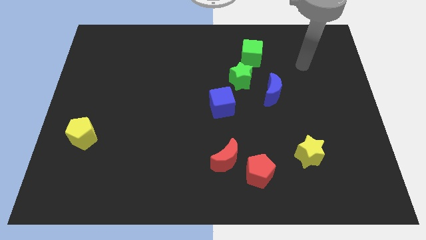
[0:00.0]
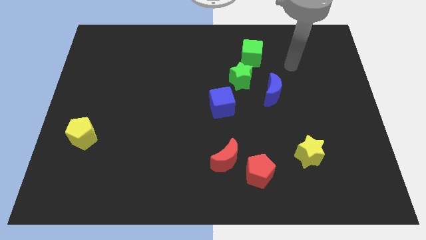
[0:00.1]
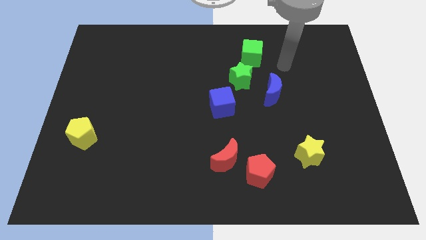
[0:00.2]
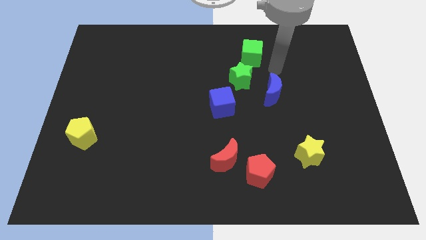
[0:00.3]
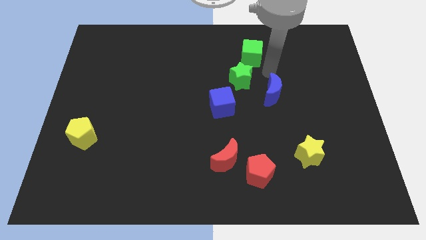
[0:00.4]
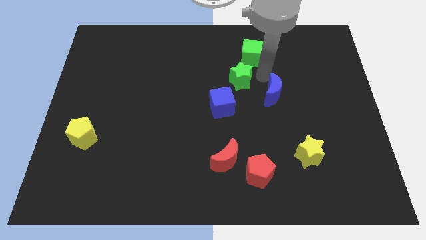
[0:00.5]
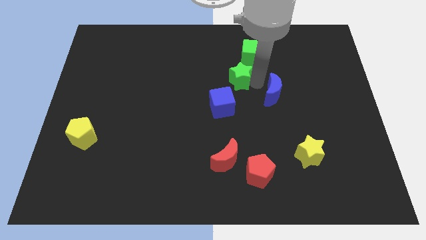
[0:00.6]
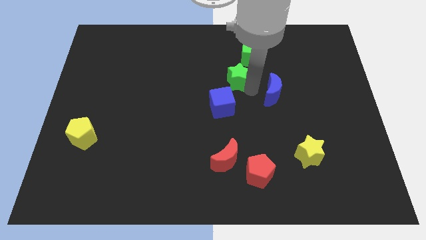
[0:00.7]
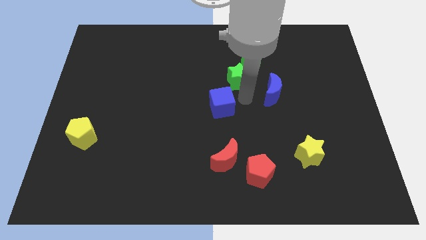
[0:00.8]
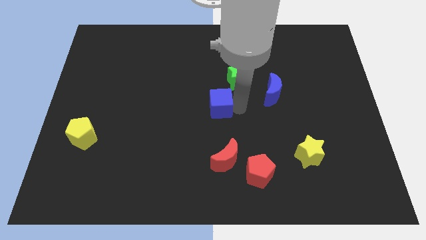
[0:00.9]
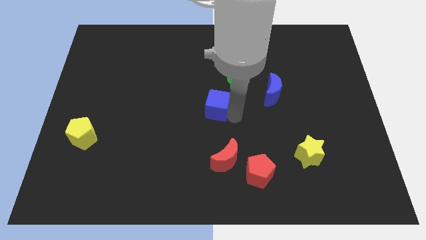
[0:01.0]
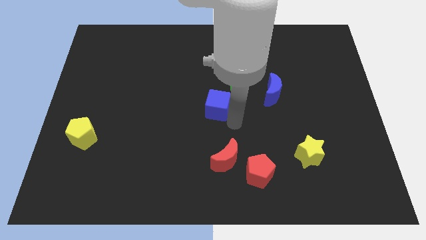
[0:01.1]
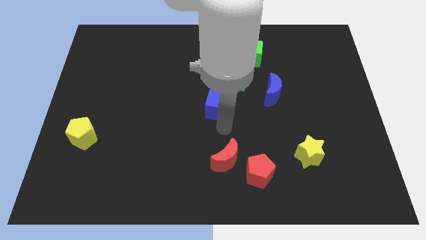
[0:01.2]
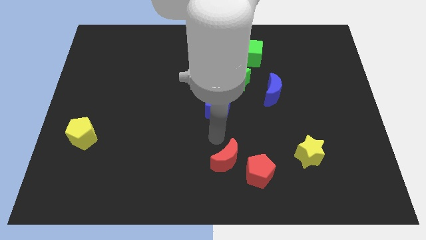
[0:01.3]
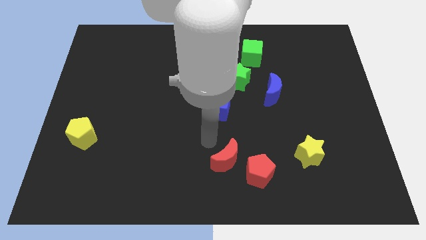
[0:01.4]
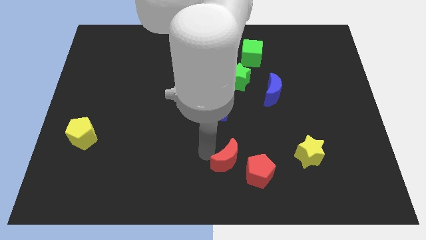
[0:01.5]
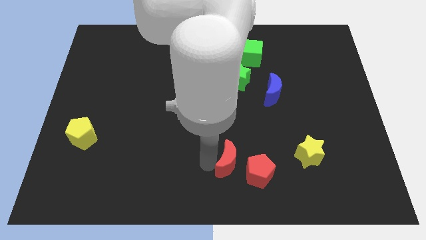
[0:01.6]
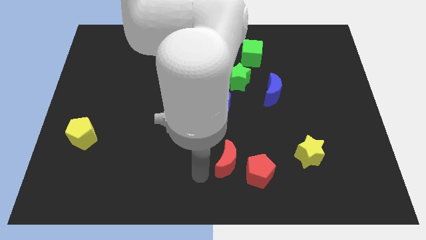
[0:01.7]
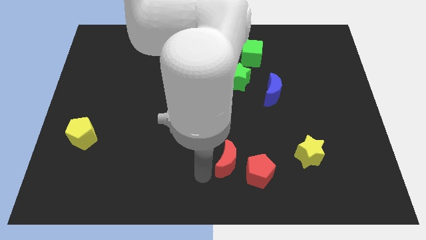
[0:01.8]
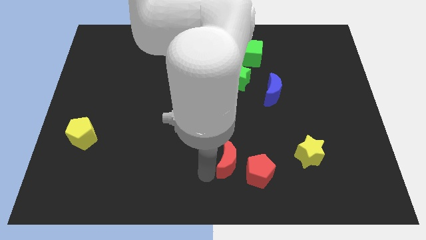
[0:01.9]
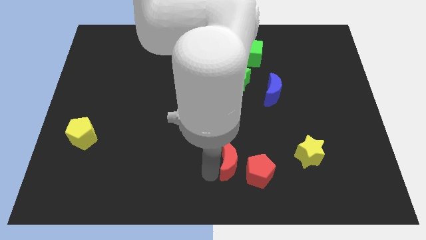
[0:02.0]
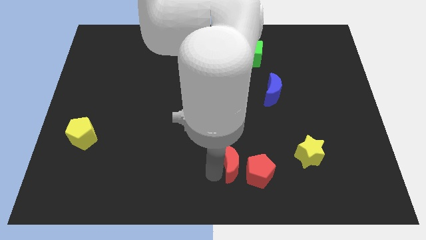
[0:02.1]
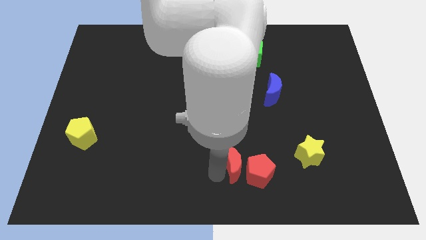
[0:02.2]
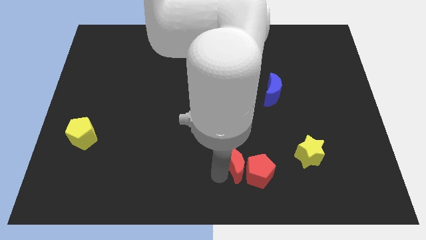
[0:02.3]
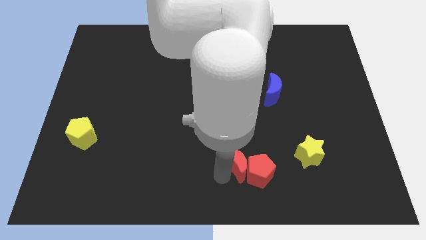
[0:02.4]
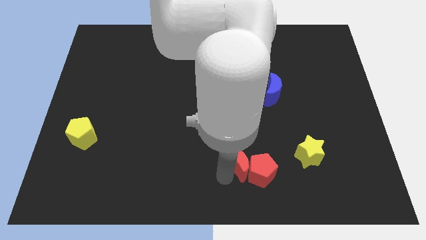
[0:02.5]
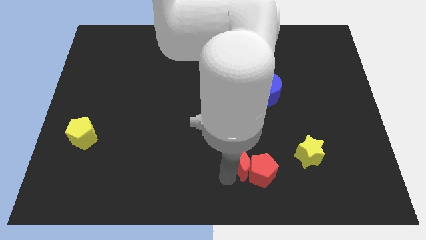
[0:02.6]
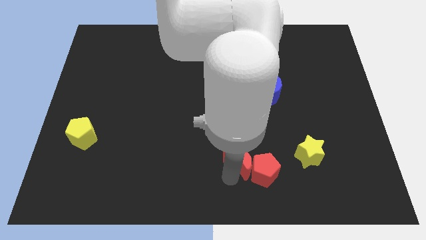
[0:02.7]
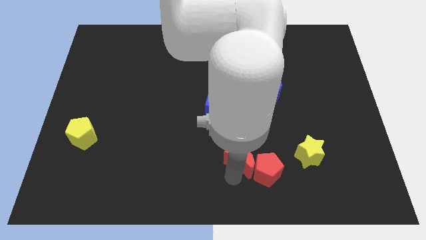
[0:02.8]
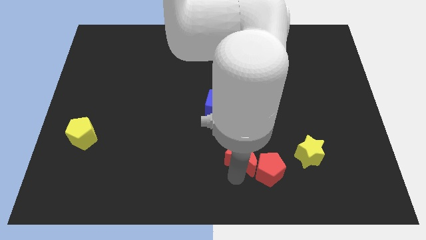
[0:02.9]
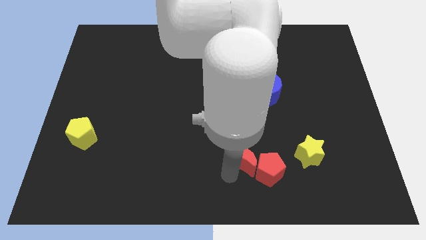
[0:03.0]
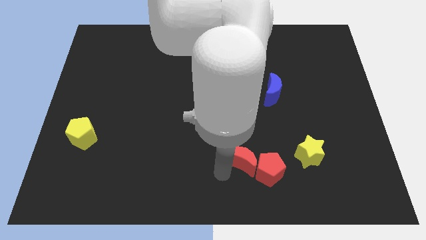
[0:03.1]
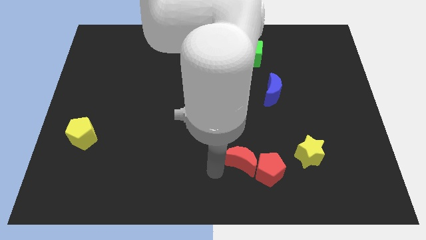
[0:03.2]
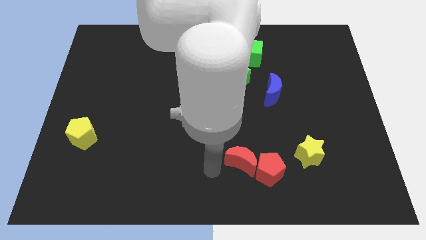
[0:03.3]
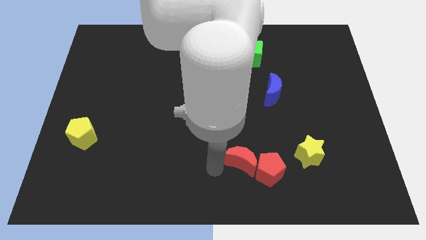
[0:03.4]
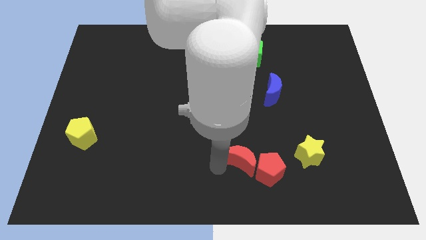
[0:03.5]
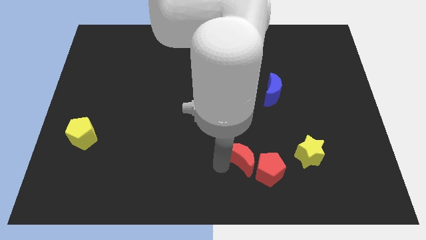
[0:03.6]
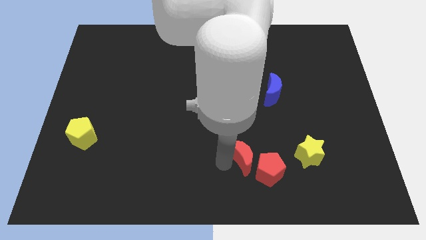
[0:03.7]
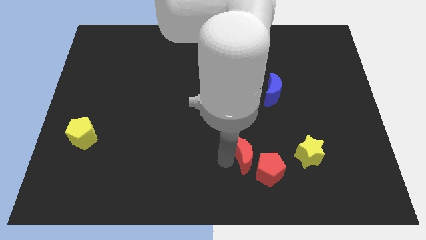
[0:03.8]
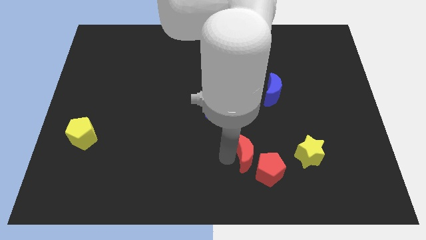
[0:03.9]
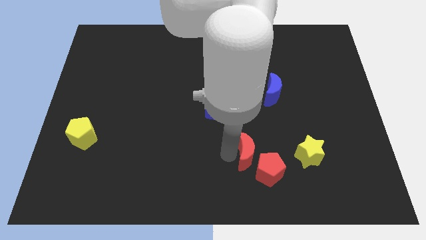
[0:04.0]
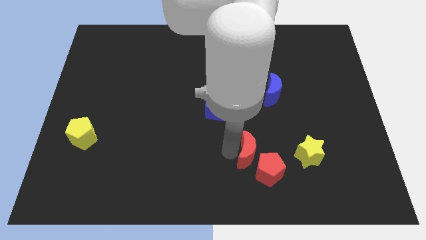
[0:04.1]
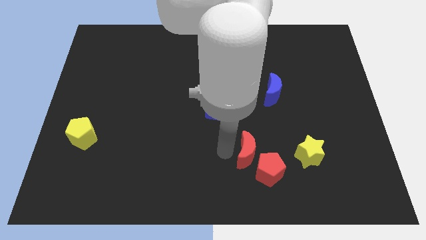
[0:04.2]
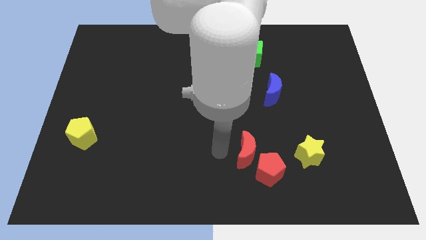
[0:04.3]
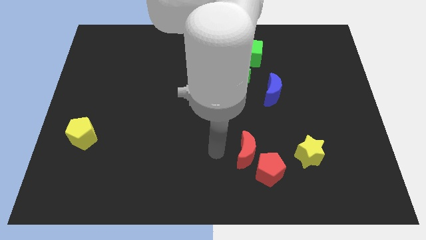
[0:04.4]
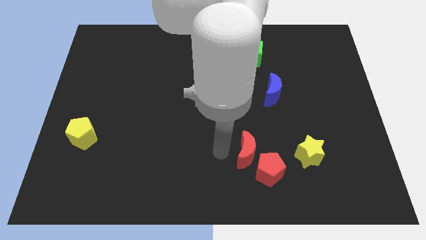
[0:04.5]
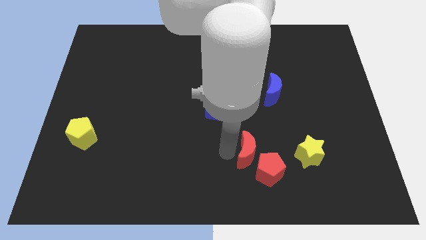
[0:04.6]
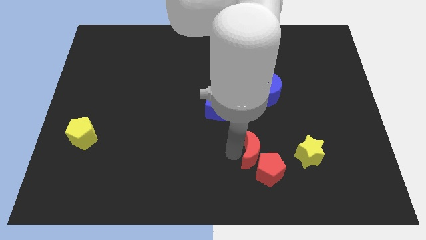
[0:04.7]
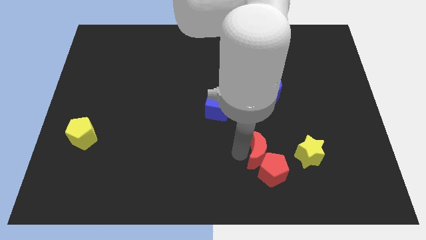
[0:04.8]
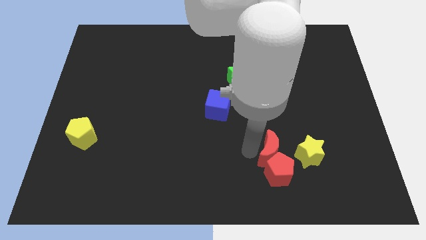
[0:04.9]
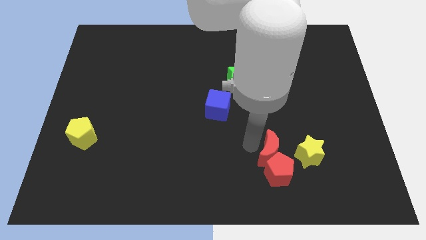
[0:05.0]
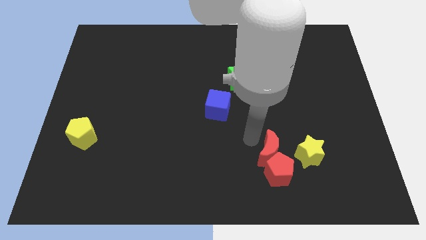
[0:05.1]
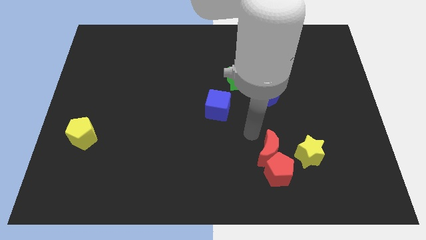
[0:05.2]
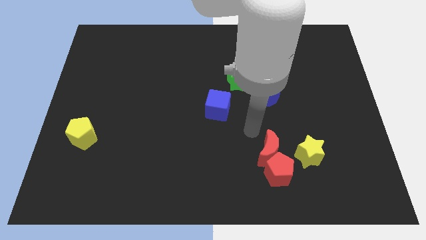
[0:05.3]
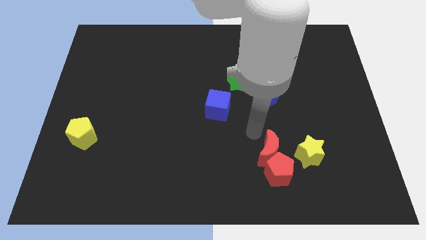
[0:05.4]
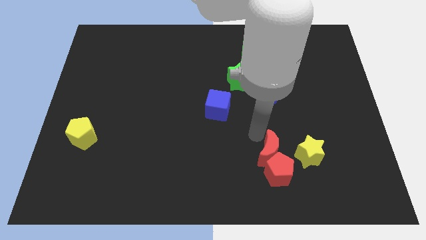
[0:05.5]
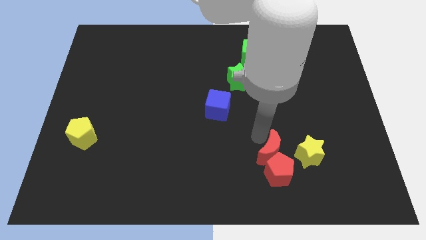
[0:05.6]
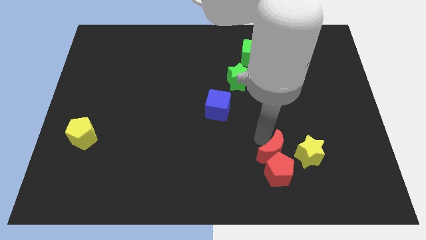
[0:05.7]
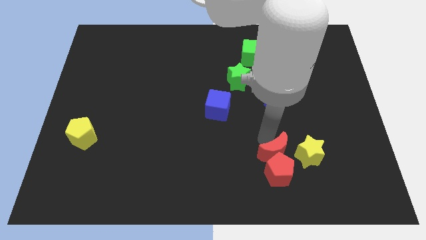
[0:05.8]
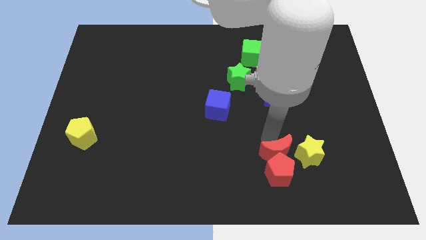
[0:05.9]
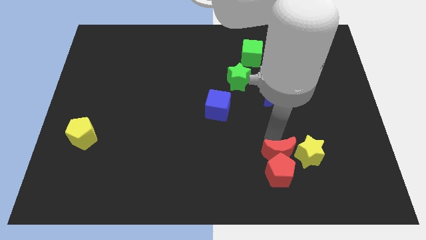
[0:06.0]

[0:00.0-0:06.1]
push the red moon to the bottom left side of the yellow star

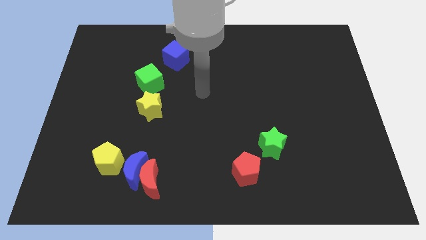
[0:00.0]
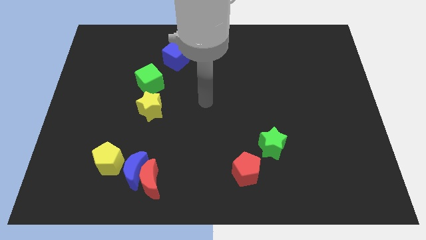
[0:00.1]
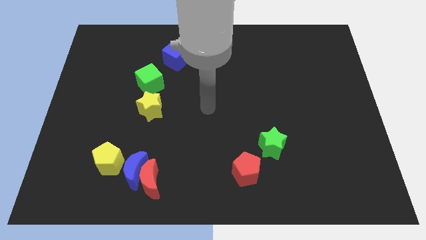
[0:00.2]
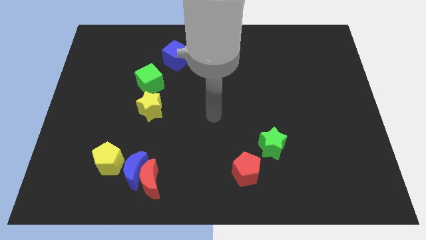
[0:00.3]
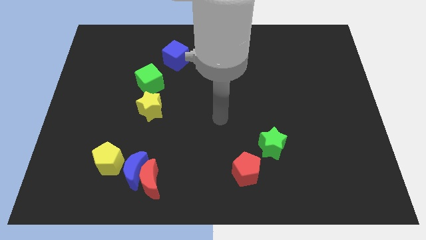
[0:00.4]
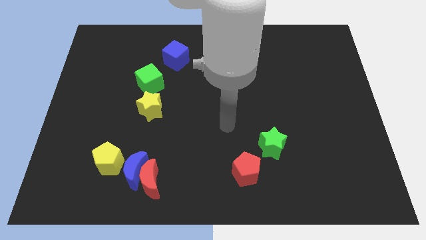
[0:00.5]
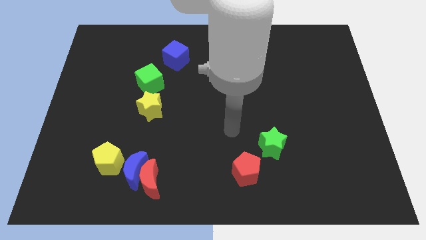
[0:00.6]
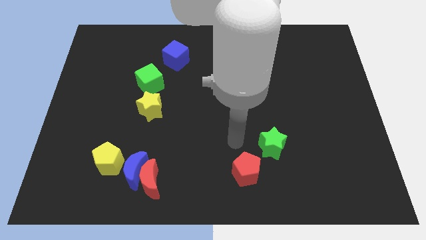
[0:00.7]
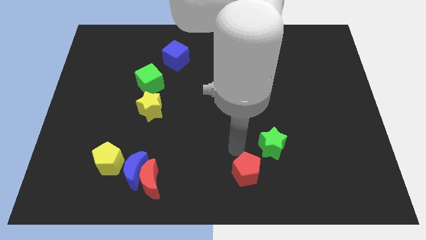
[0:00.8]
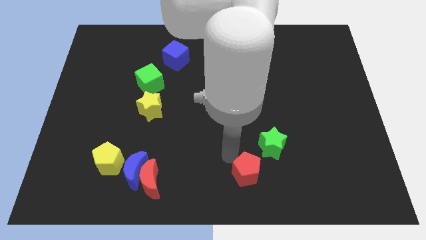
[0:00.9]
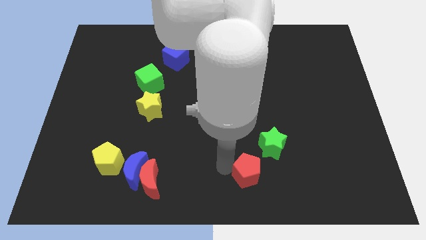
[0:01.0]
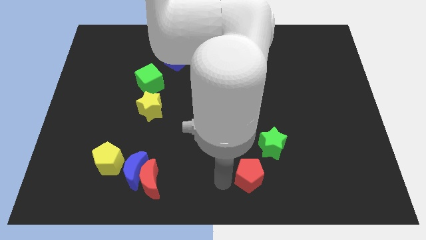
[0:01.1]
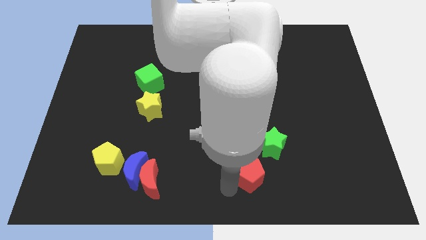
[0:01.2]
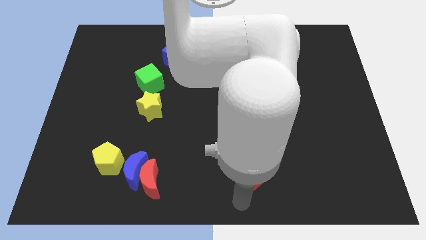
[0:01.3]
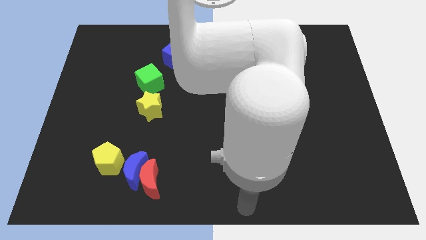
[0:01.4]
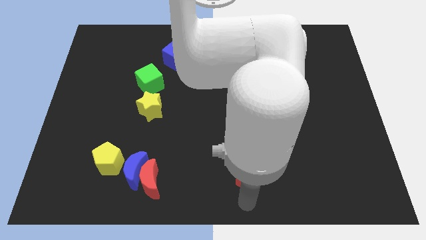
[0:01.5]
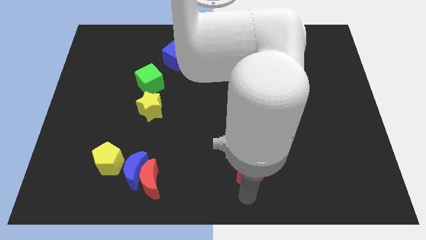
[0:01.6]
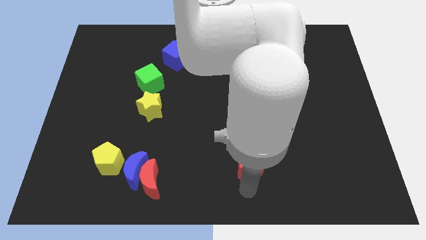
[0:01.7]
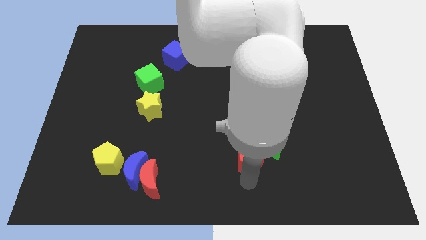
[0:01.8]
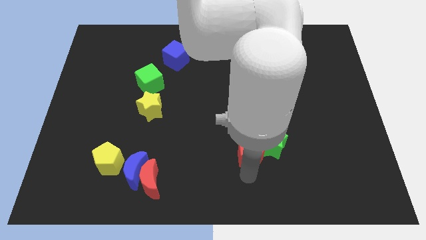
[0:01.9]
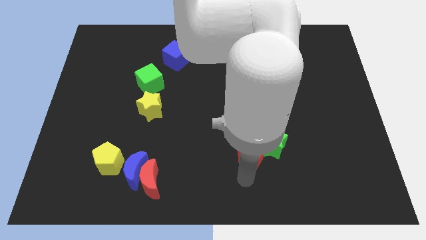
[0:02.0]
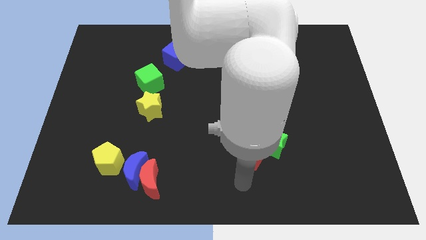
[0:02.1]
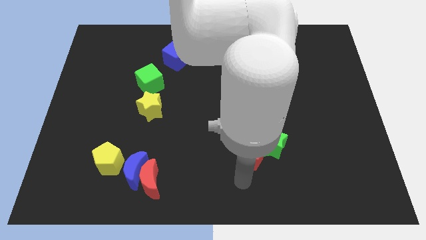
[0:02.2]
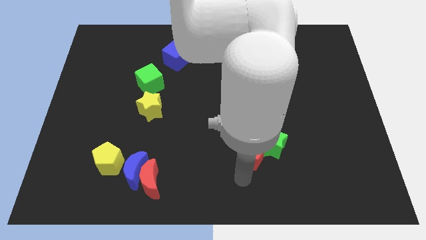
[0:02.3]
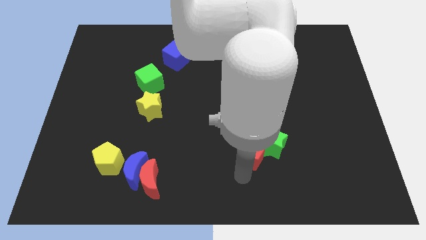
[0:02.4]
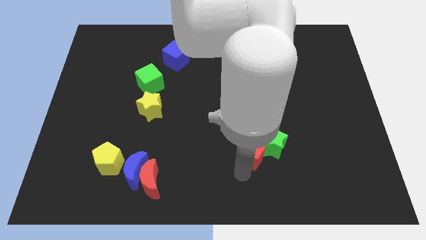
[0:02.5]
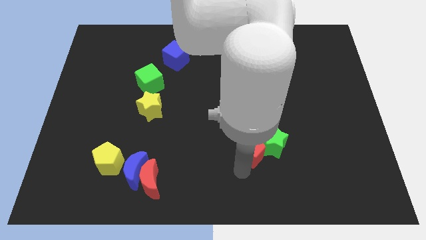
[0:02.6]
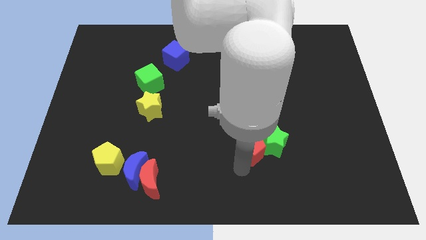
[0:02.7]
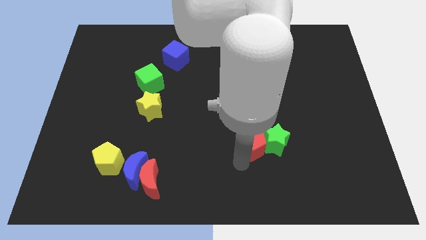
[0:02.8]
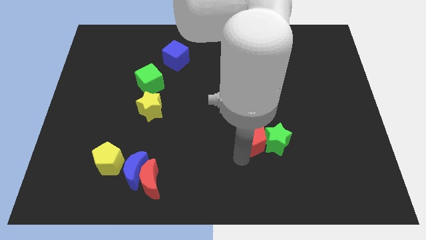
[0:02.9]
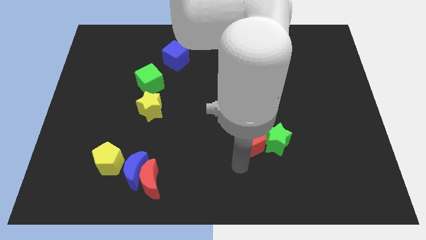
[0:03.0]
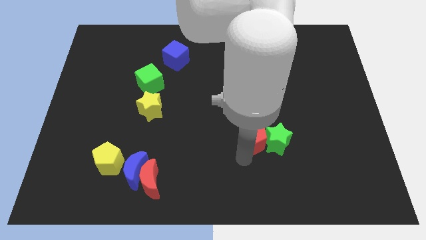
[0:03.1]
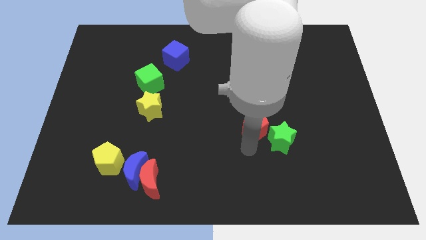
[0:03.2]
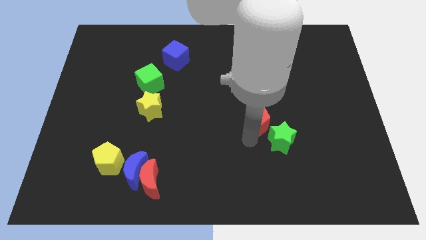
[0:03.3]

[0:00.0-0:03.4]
move the red pentagon above the green star
